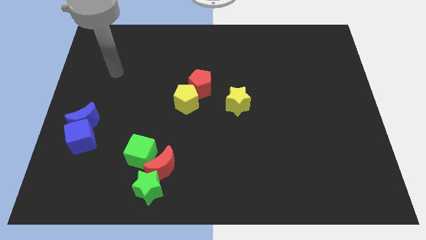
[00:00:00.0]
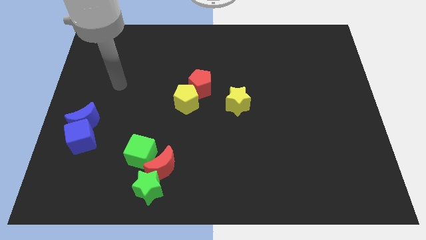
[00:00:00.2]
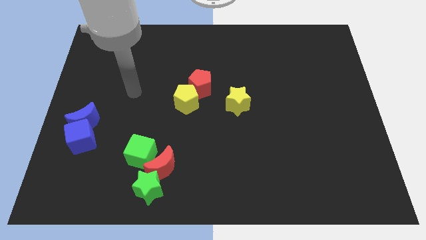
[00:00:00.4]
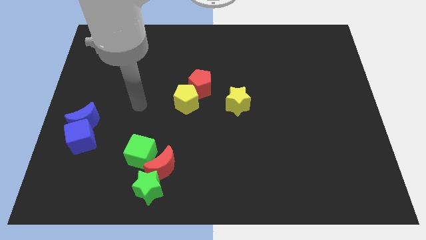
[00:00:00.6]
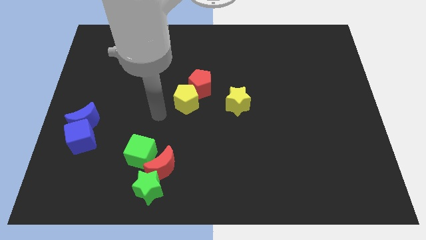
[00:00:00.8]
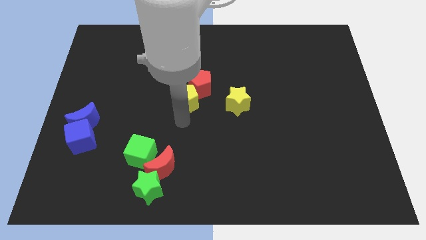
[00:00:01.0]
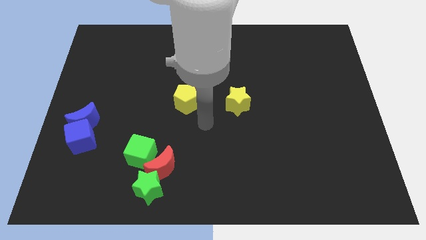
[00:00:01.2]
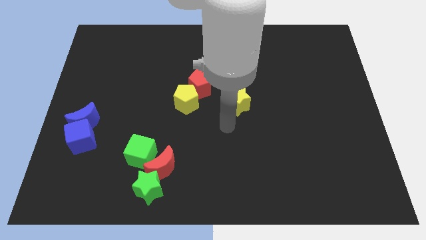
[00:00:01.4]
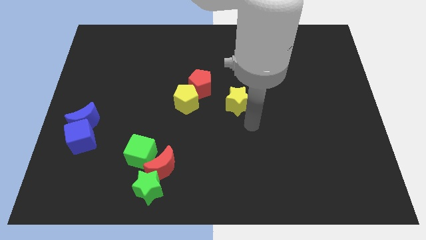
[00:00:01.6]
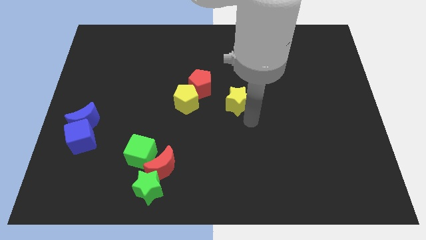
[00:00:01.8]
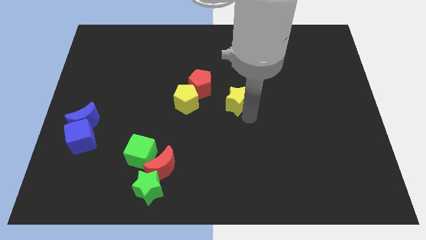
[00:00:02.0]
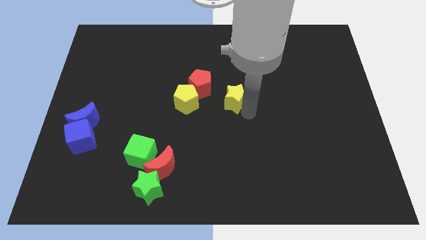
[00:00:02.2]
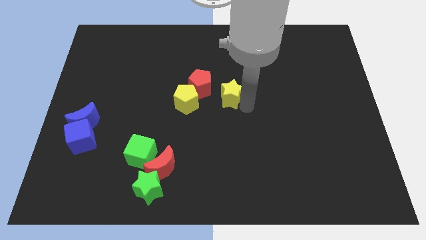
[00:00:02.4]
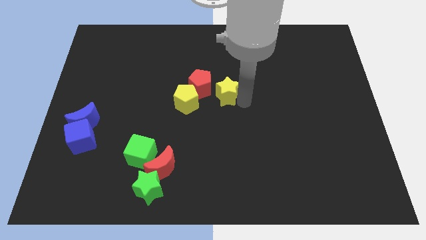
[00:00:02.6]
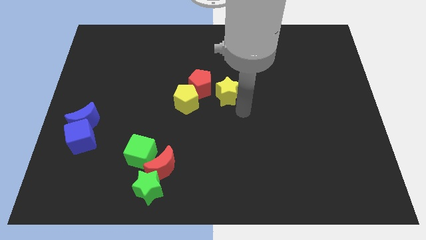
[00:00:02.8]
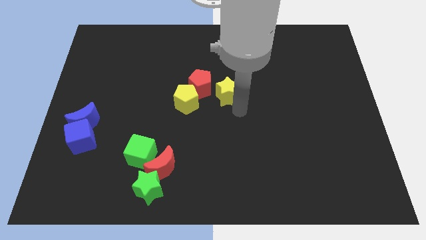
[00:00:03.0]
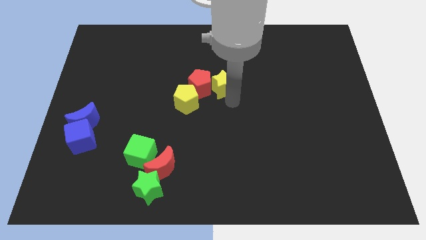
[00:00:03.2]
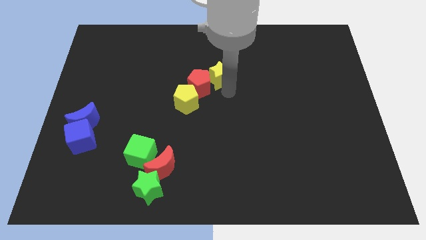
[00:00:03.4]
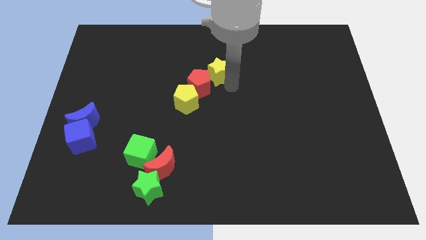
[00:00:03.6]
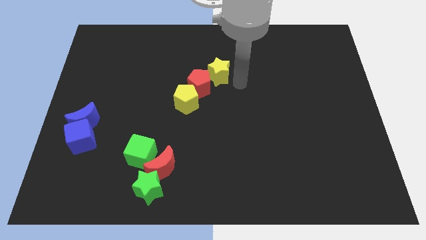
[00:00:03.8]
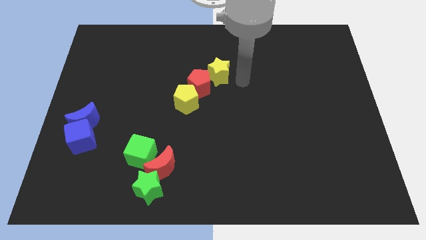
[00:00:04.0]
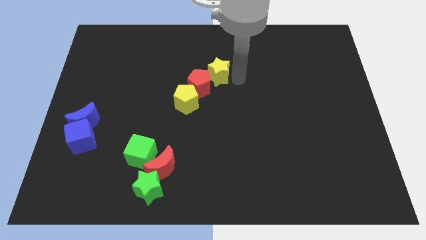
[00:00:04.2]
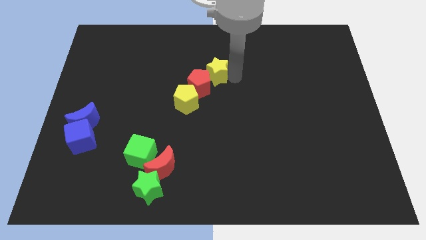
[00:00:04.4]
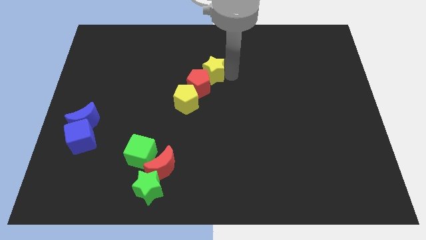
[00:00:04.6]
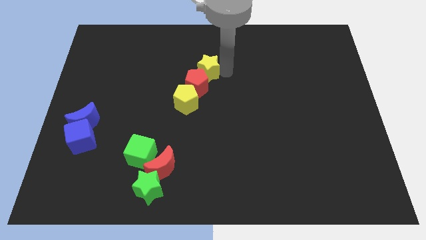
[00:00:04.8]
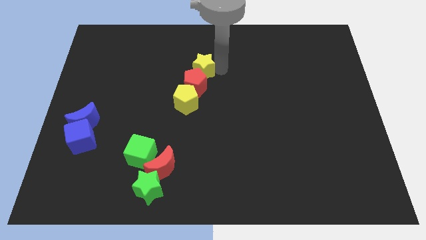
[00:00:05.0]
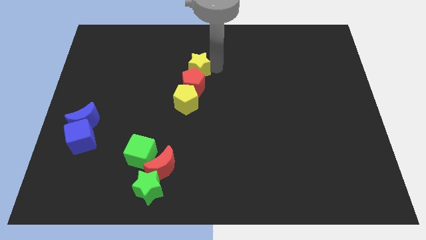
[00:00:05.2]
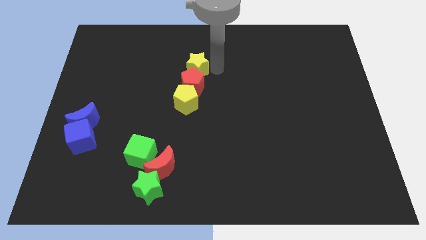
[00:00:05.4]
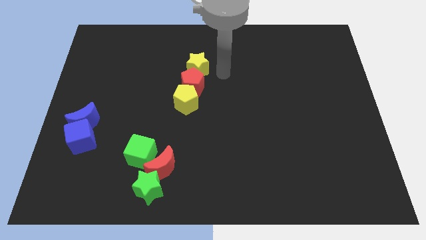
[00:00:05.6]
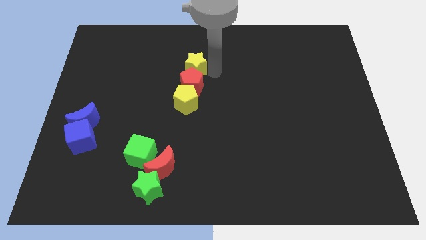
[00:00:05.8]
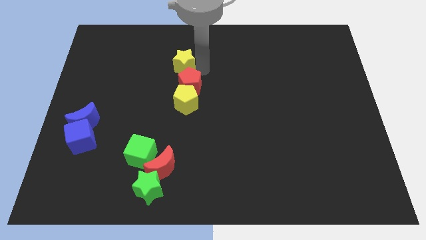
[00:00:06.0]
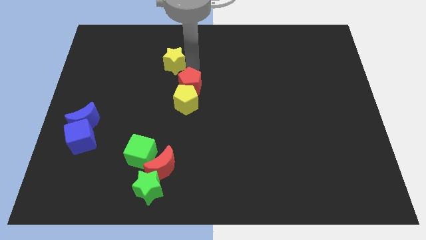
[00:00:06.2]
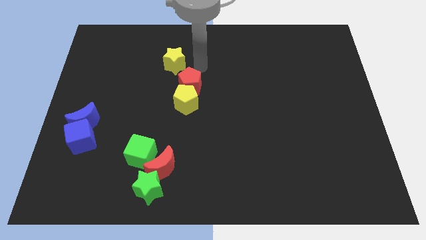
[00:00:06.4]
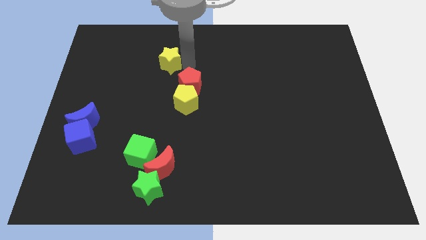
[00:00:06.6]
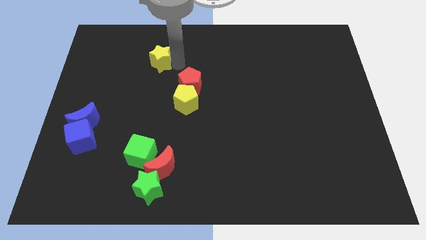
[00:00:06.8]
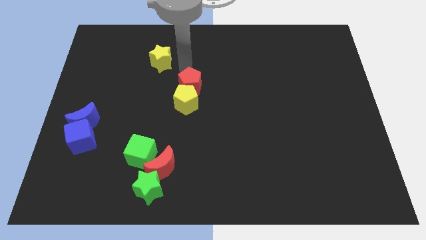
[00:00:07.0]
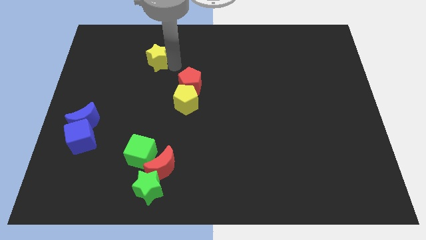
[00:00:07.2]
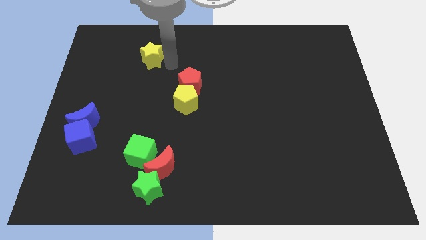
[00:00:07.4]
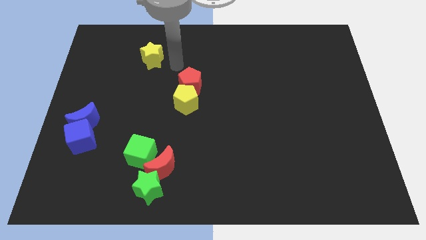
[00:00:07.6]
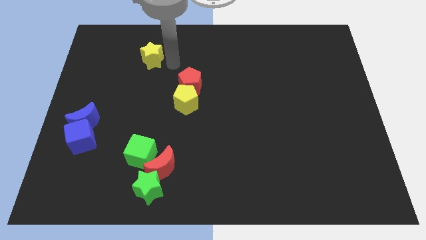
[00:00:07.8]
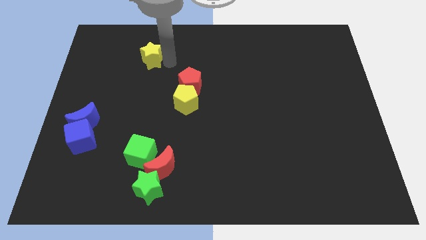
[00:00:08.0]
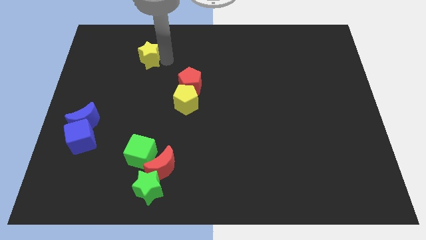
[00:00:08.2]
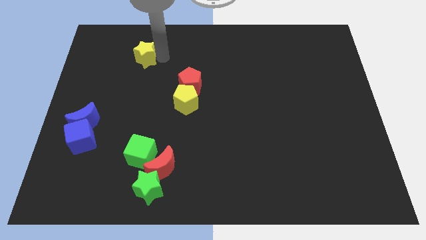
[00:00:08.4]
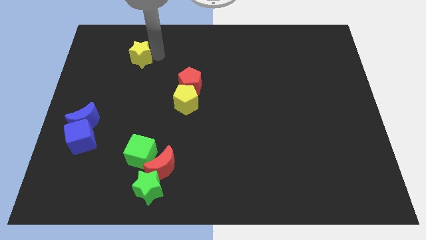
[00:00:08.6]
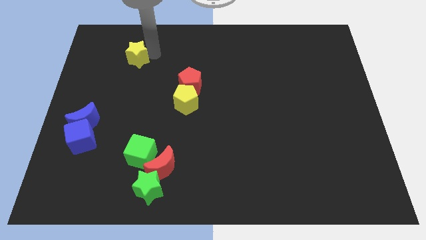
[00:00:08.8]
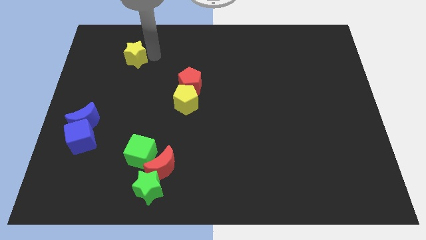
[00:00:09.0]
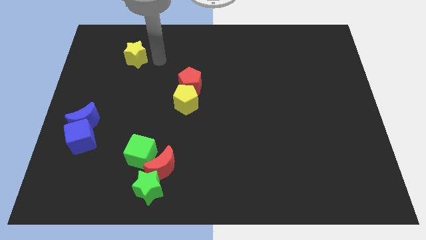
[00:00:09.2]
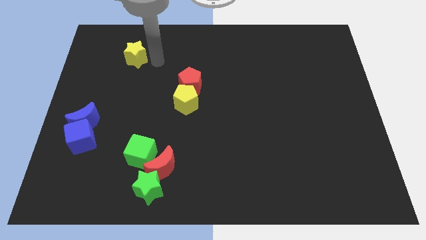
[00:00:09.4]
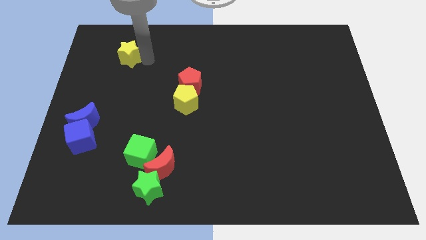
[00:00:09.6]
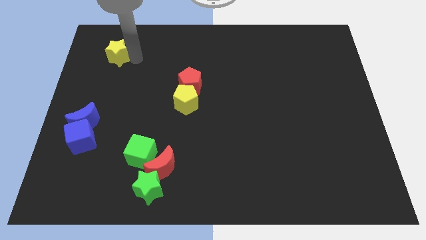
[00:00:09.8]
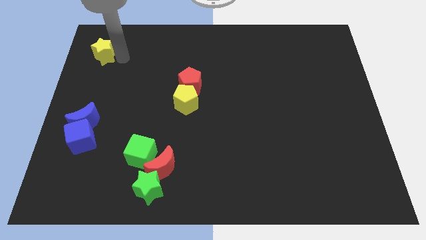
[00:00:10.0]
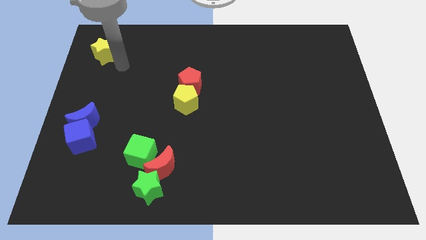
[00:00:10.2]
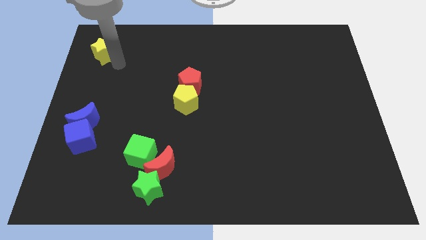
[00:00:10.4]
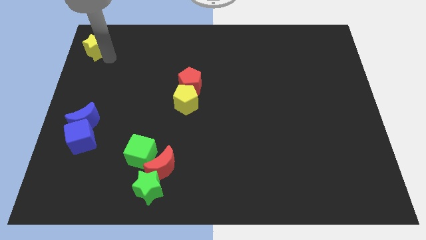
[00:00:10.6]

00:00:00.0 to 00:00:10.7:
move the yellow star to the upper left corner
